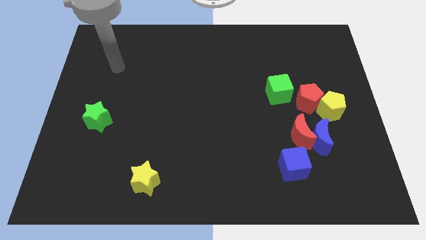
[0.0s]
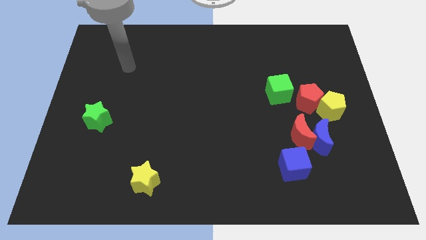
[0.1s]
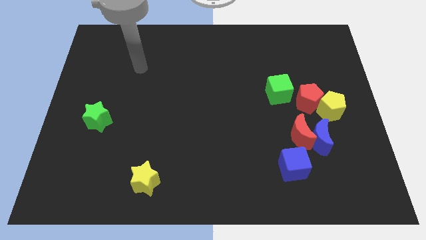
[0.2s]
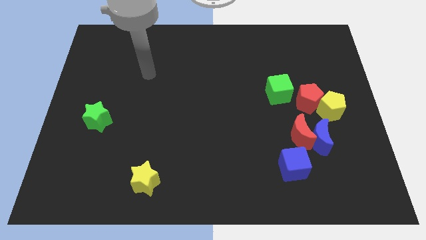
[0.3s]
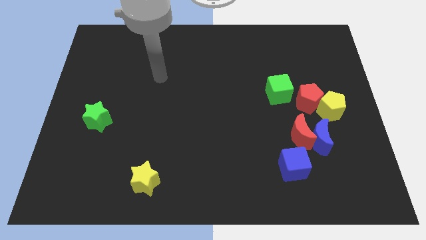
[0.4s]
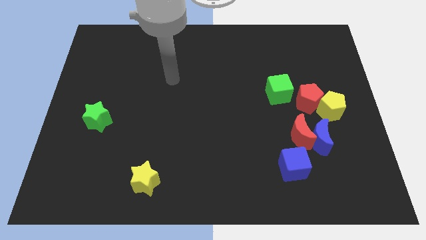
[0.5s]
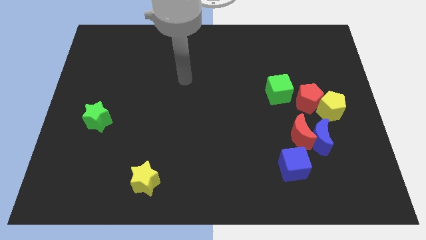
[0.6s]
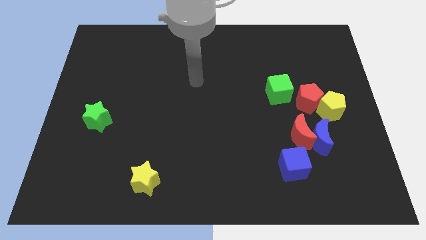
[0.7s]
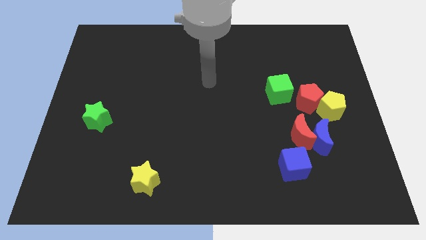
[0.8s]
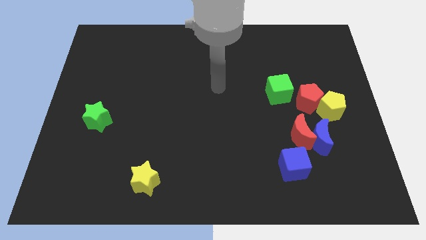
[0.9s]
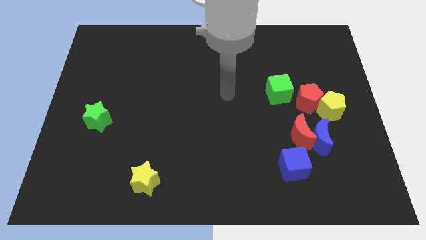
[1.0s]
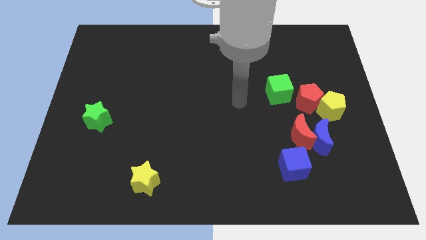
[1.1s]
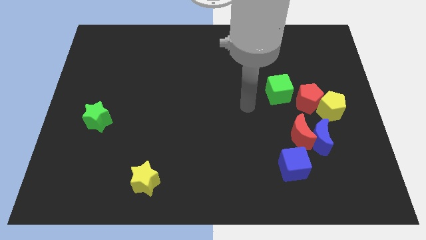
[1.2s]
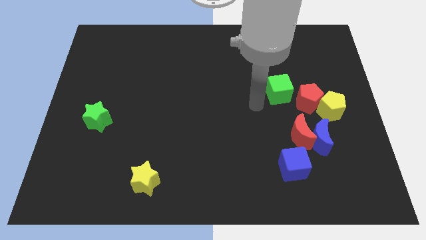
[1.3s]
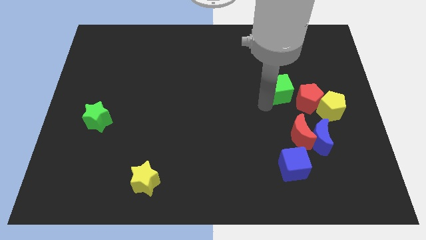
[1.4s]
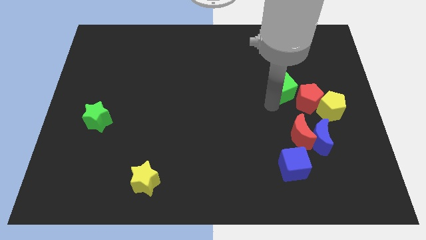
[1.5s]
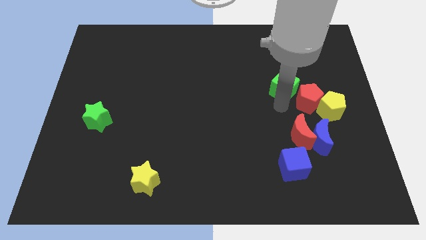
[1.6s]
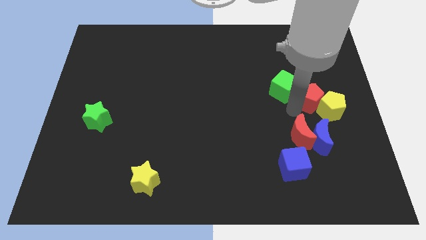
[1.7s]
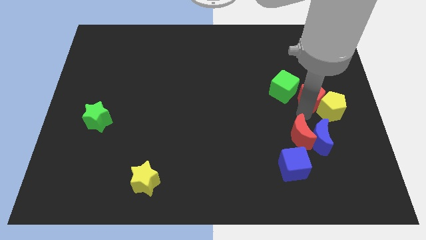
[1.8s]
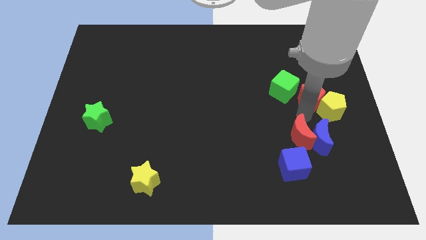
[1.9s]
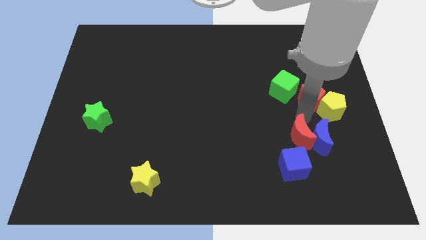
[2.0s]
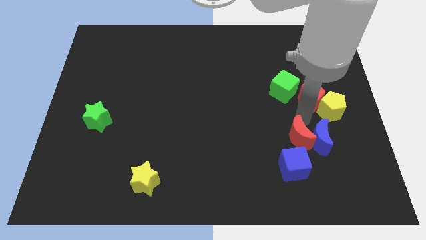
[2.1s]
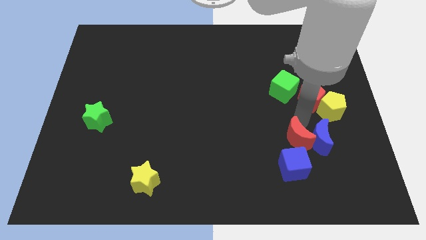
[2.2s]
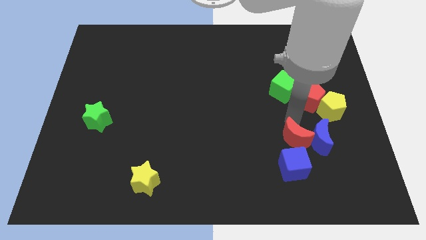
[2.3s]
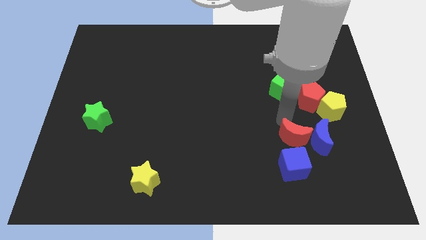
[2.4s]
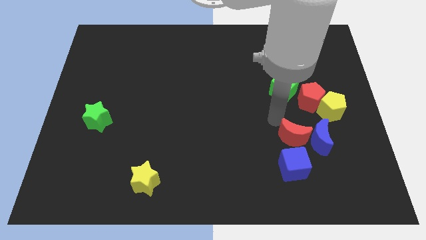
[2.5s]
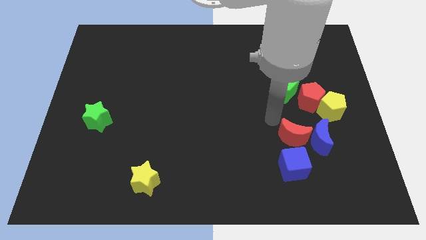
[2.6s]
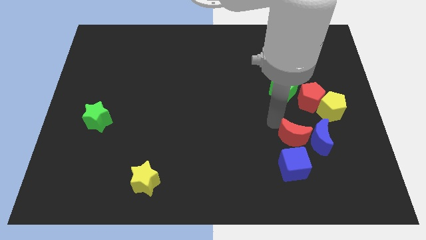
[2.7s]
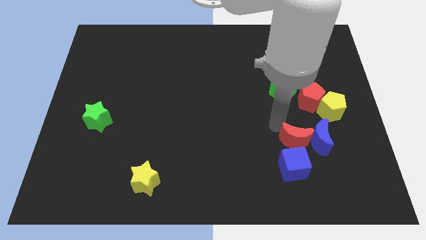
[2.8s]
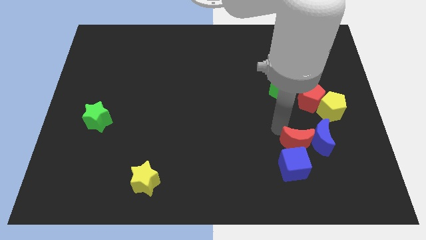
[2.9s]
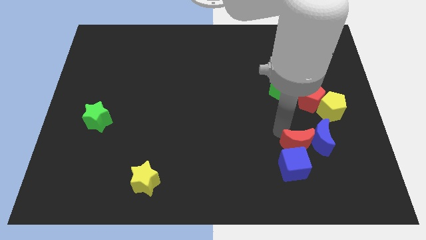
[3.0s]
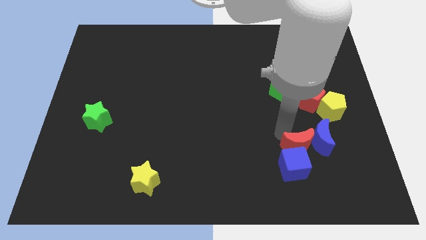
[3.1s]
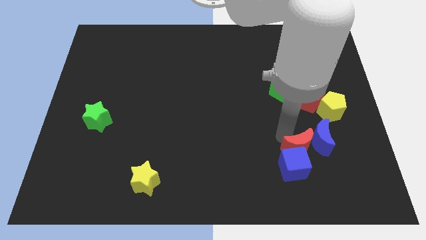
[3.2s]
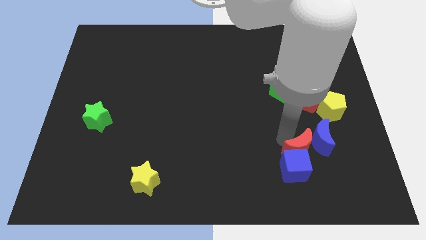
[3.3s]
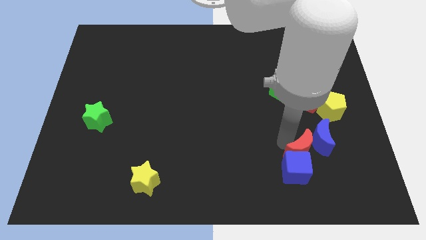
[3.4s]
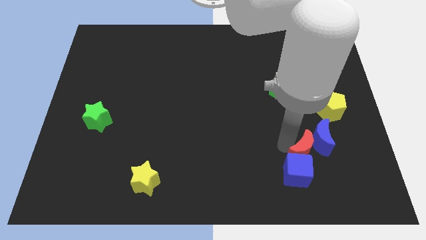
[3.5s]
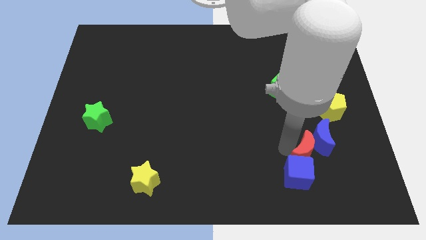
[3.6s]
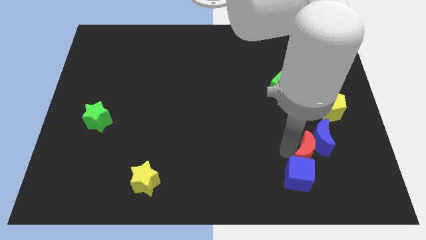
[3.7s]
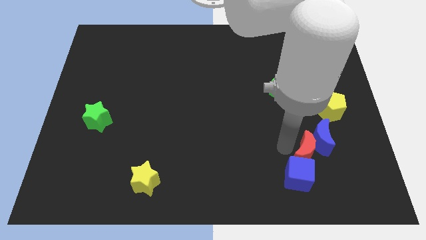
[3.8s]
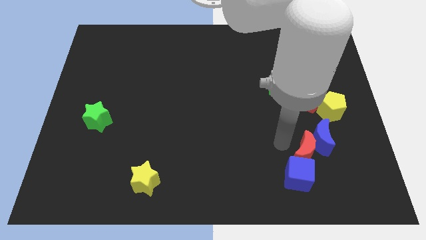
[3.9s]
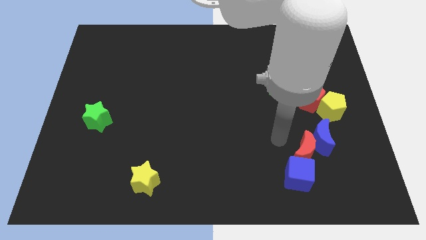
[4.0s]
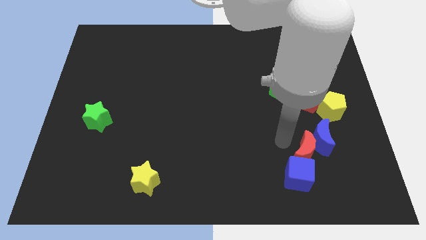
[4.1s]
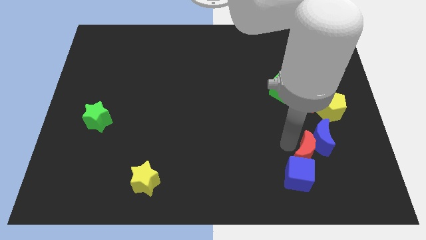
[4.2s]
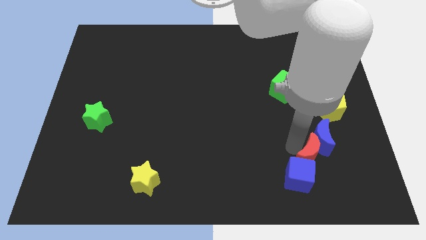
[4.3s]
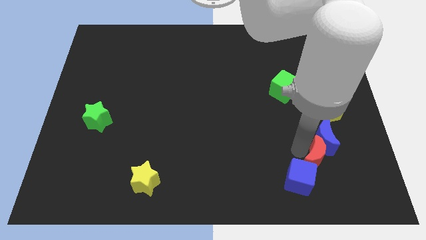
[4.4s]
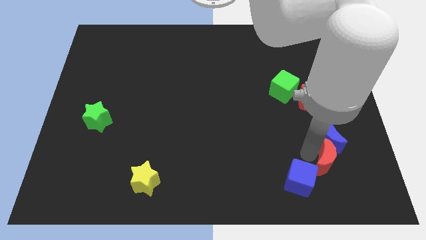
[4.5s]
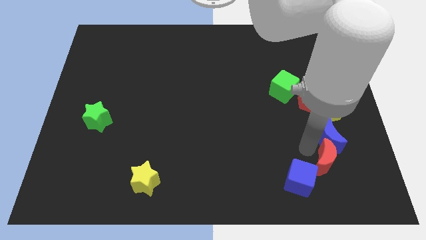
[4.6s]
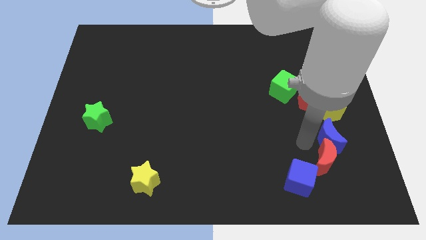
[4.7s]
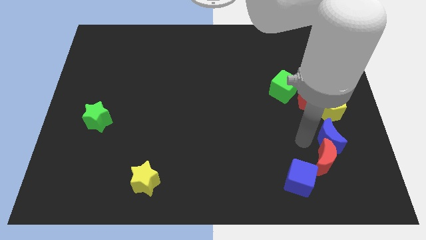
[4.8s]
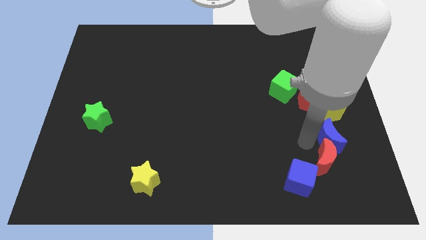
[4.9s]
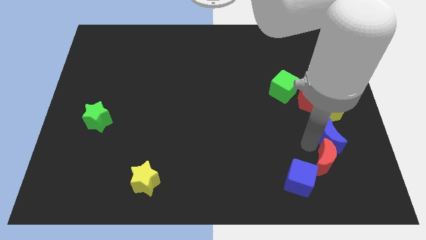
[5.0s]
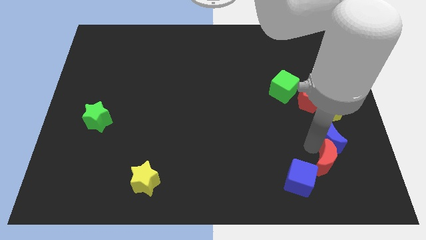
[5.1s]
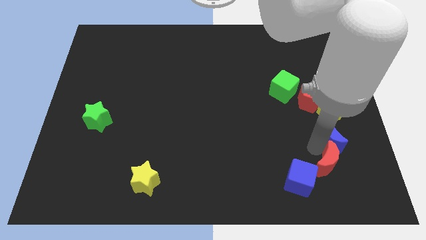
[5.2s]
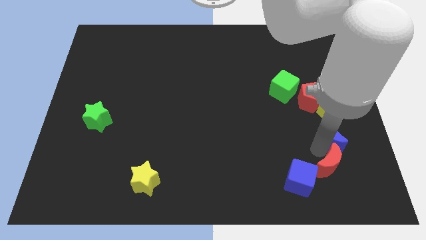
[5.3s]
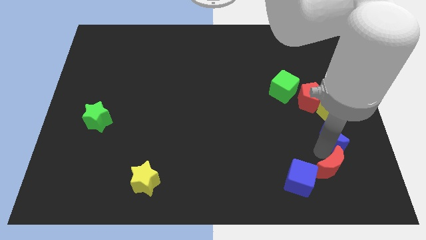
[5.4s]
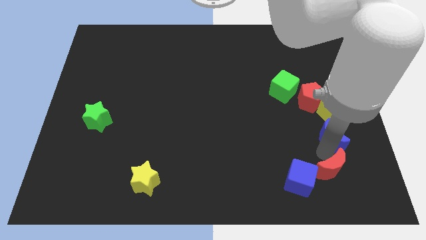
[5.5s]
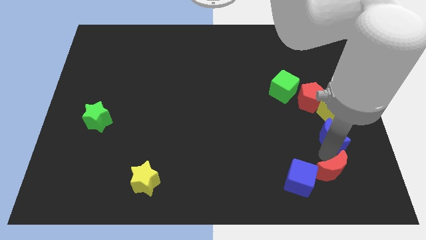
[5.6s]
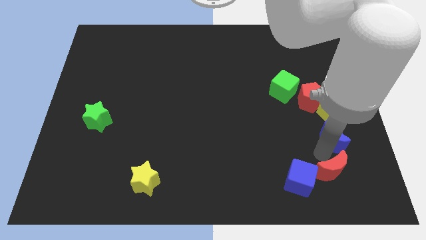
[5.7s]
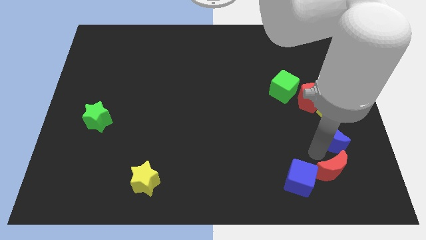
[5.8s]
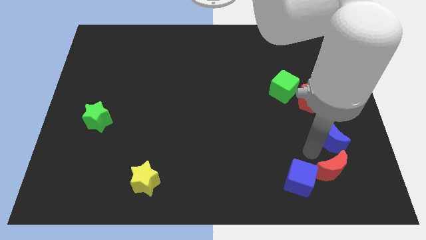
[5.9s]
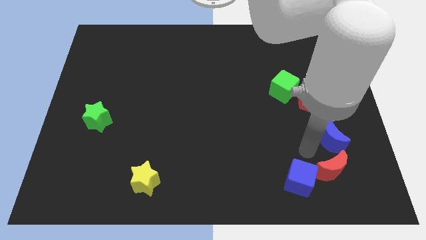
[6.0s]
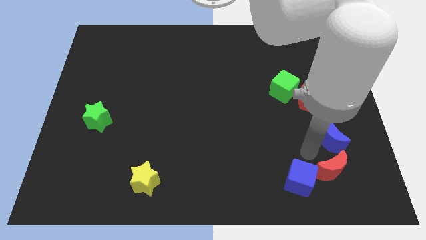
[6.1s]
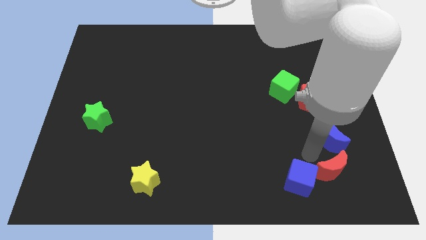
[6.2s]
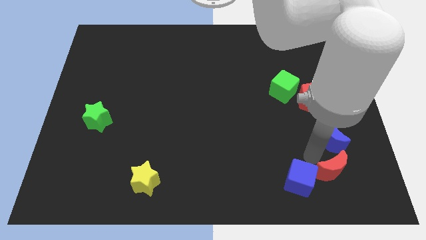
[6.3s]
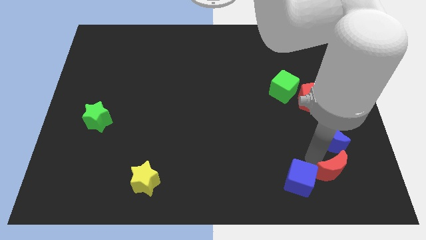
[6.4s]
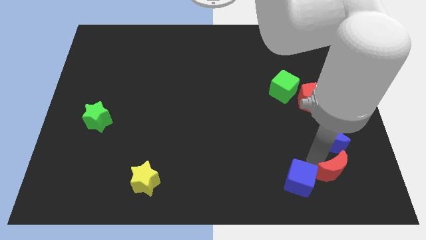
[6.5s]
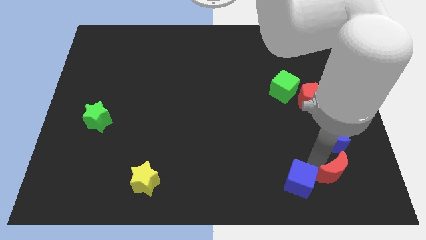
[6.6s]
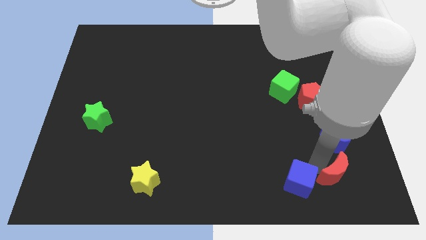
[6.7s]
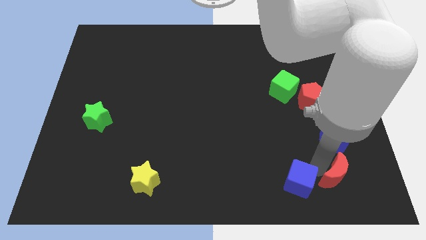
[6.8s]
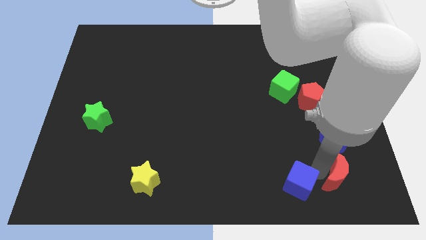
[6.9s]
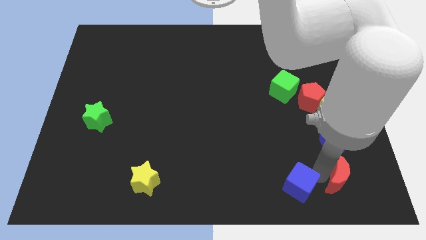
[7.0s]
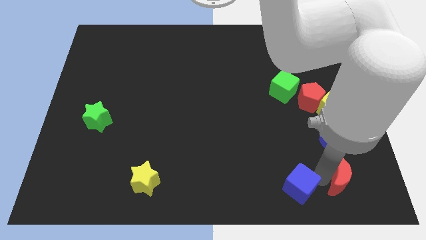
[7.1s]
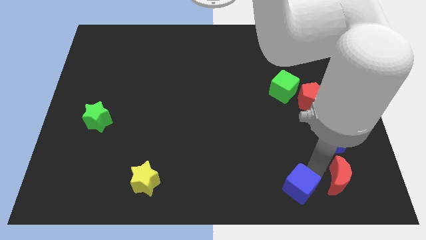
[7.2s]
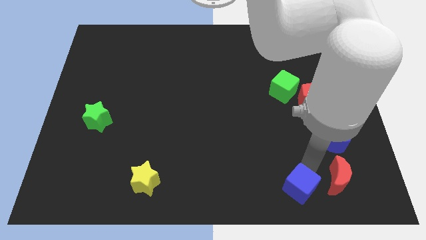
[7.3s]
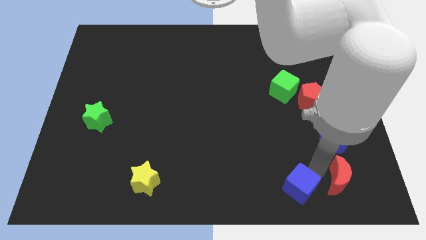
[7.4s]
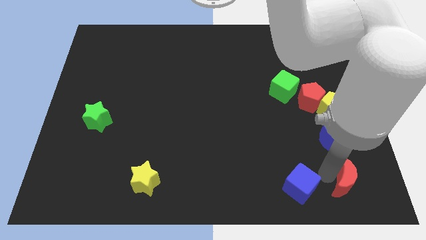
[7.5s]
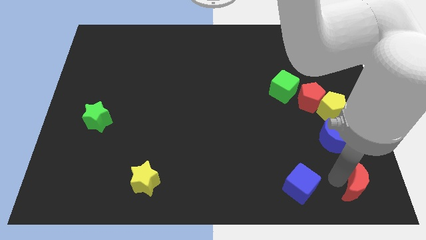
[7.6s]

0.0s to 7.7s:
put the red moon to the bottom right corner

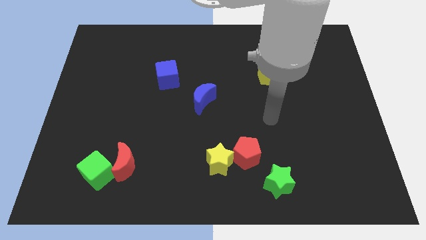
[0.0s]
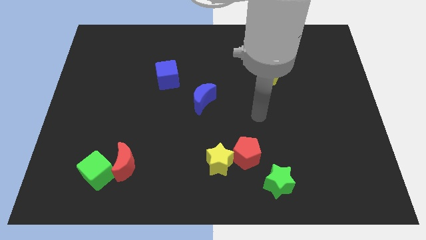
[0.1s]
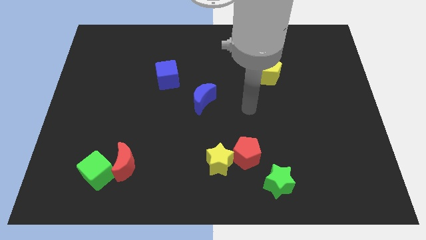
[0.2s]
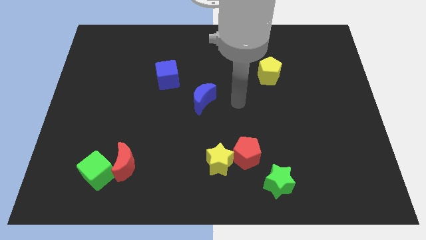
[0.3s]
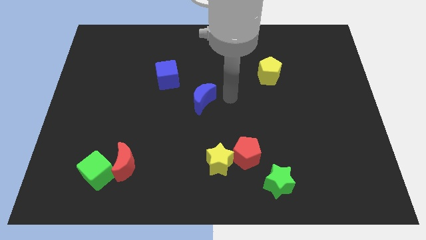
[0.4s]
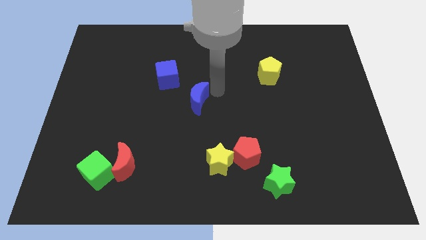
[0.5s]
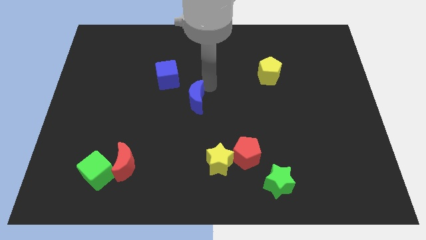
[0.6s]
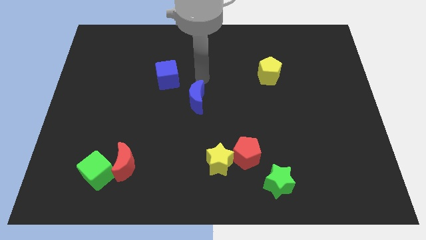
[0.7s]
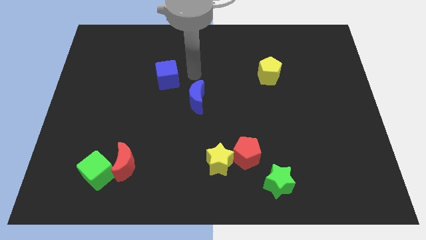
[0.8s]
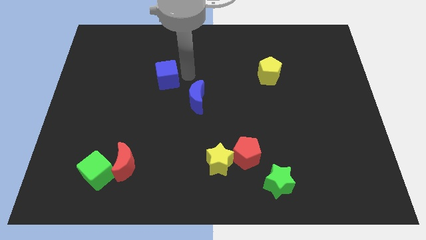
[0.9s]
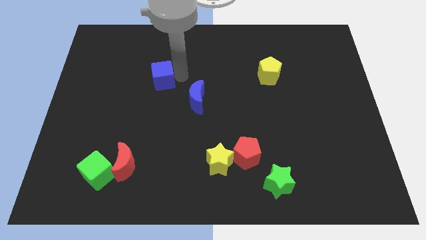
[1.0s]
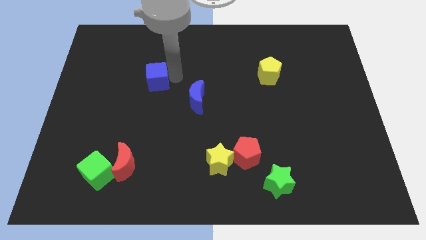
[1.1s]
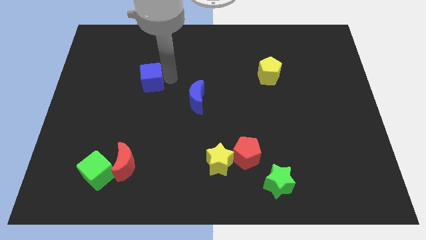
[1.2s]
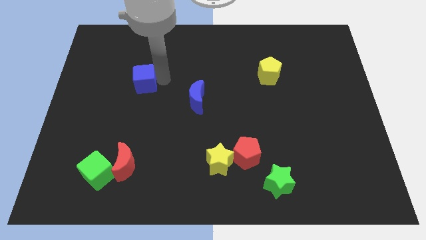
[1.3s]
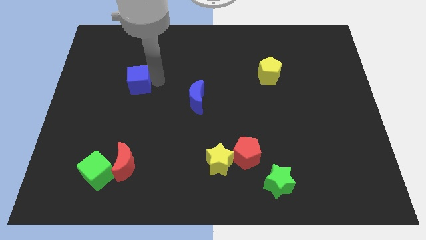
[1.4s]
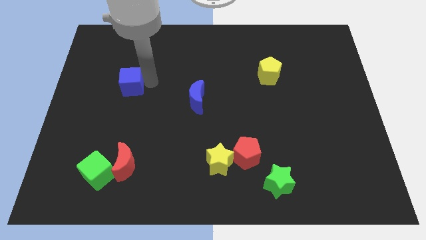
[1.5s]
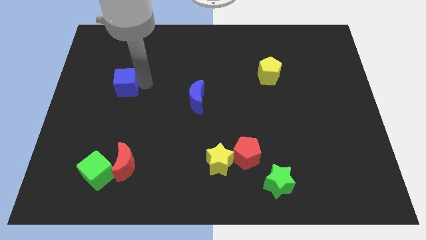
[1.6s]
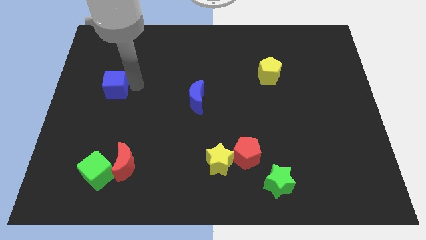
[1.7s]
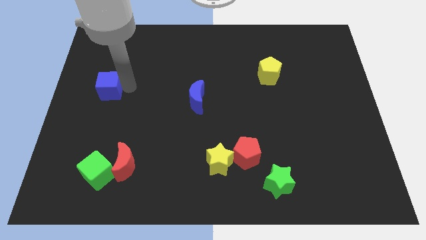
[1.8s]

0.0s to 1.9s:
move the blue cube to the left side
